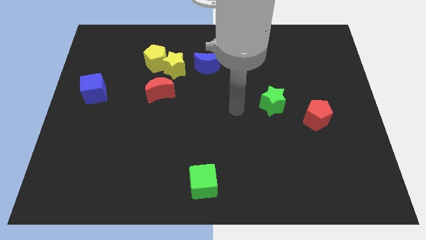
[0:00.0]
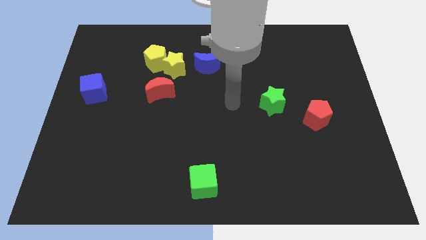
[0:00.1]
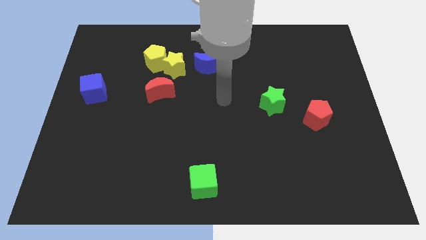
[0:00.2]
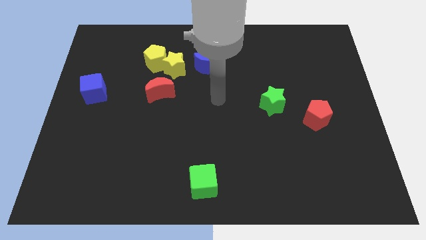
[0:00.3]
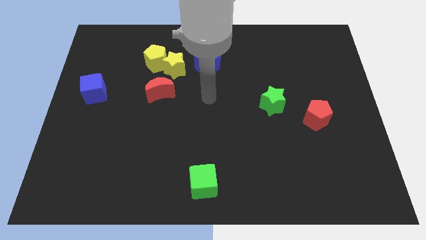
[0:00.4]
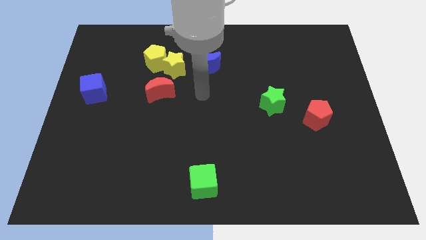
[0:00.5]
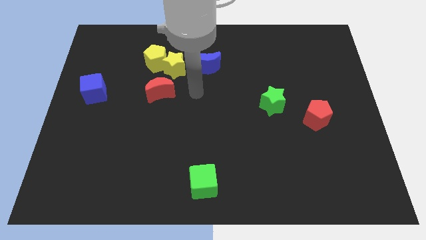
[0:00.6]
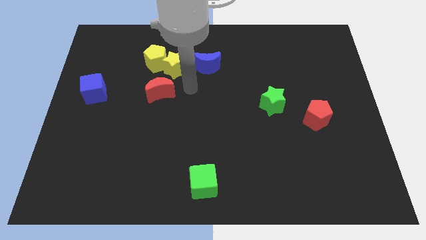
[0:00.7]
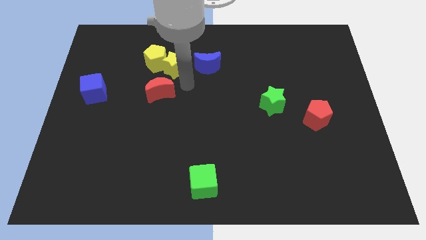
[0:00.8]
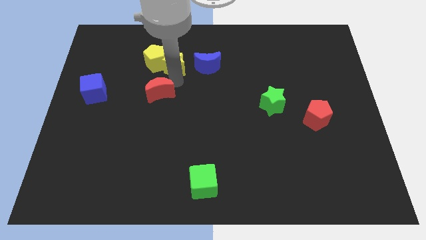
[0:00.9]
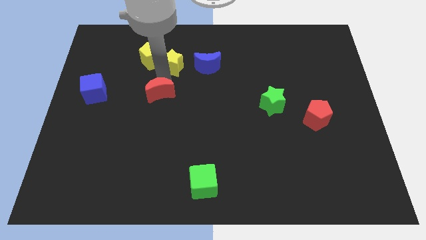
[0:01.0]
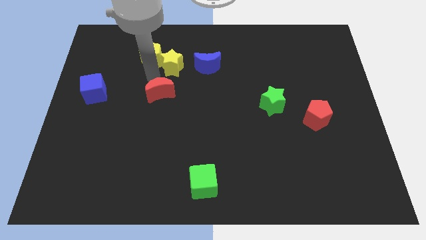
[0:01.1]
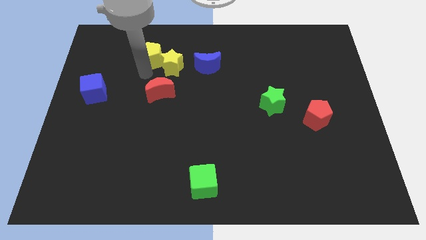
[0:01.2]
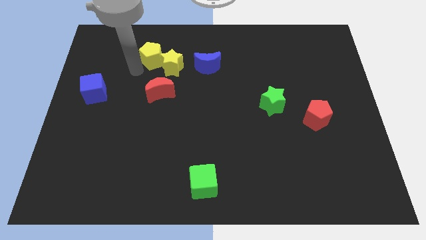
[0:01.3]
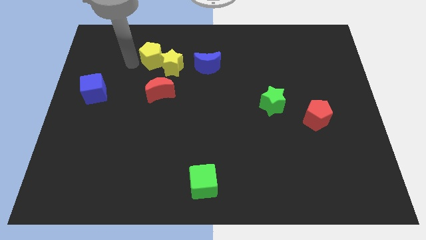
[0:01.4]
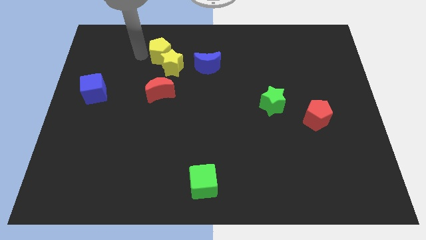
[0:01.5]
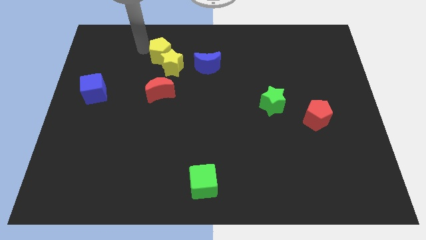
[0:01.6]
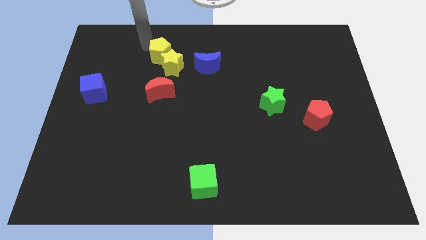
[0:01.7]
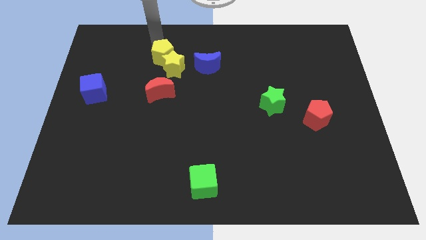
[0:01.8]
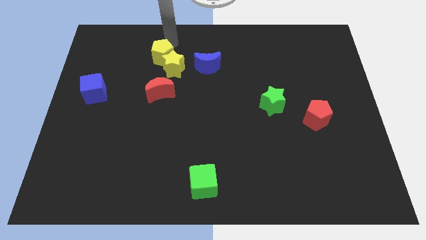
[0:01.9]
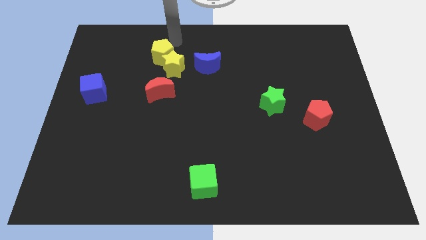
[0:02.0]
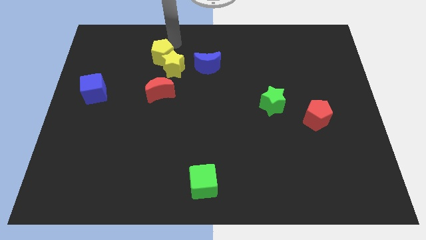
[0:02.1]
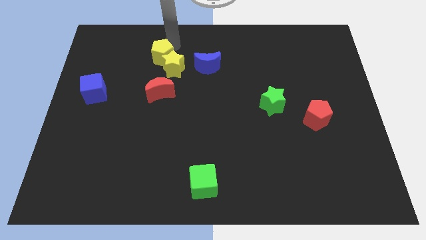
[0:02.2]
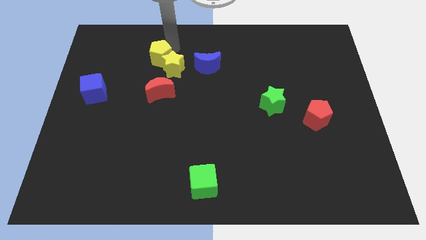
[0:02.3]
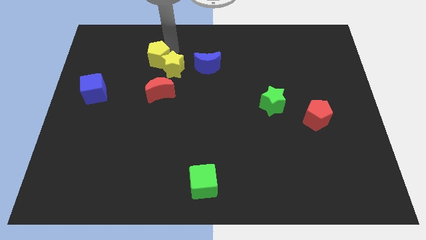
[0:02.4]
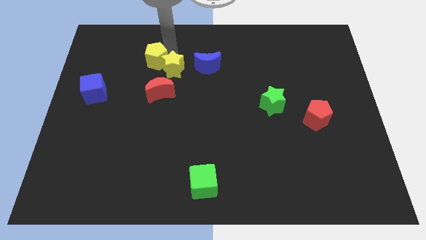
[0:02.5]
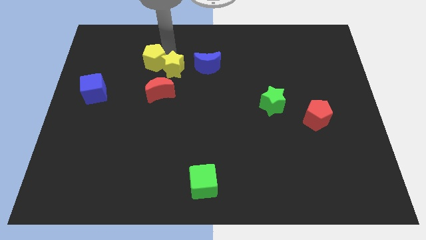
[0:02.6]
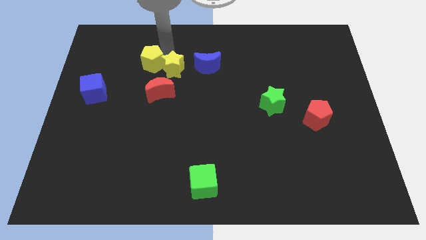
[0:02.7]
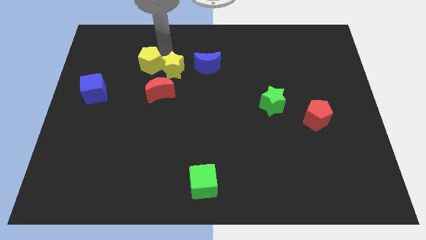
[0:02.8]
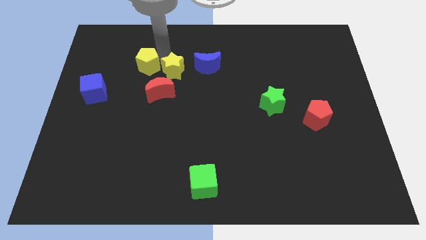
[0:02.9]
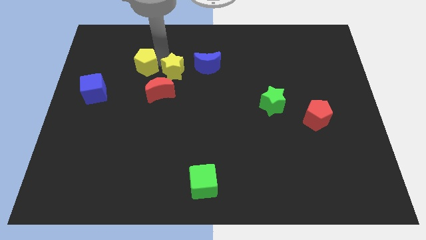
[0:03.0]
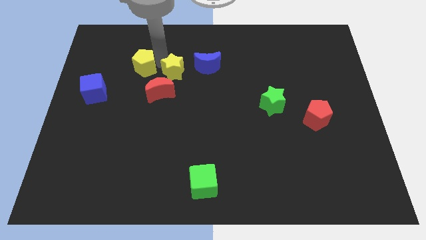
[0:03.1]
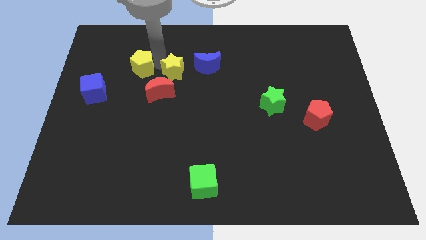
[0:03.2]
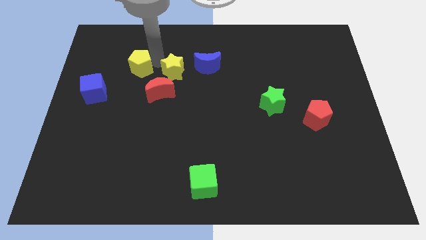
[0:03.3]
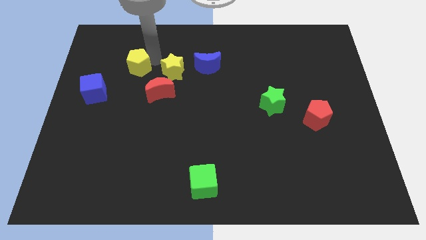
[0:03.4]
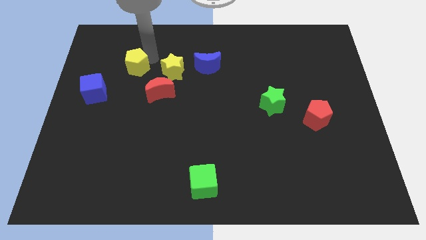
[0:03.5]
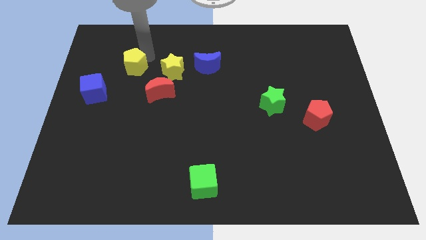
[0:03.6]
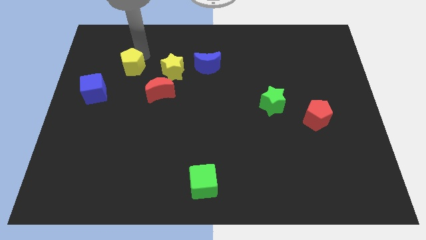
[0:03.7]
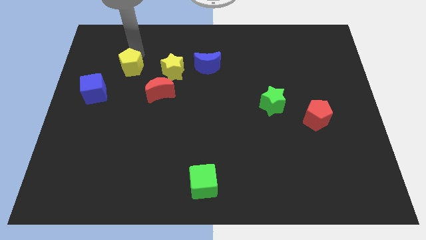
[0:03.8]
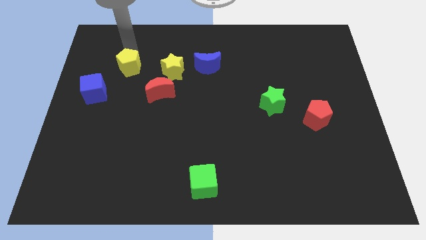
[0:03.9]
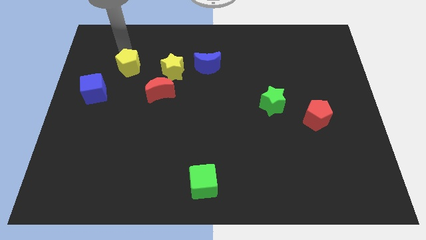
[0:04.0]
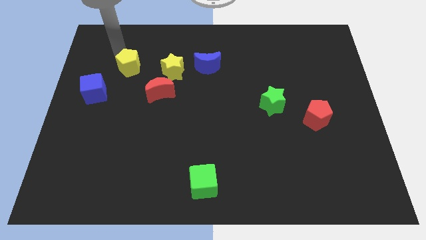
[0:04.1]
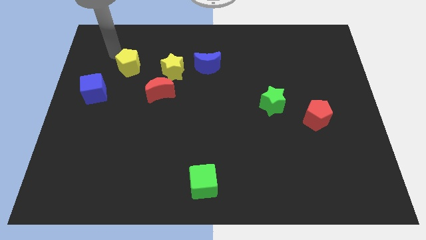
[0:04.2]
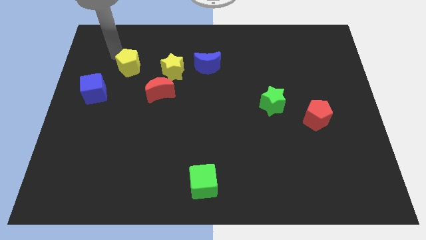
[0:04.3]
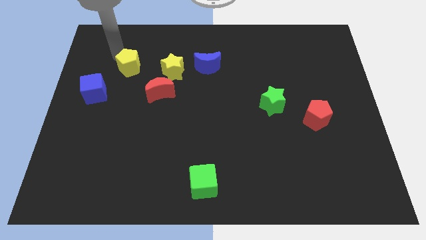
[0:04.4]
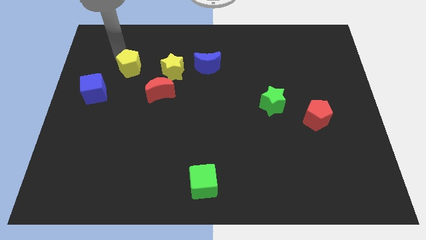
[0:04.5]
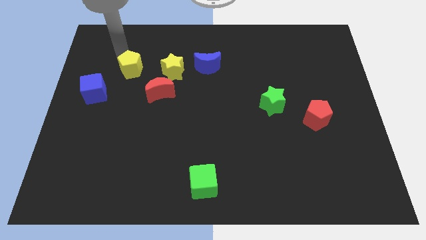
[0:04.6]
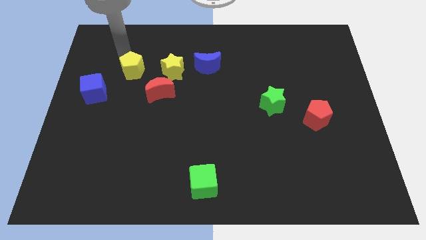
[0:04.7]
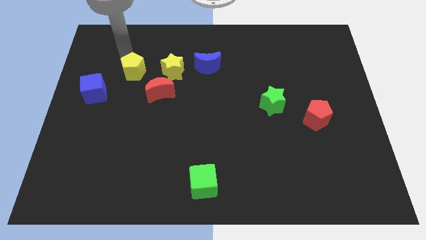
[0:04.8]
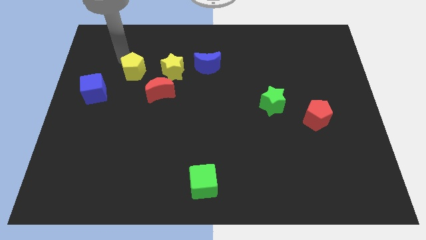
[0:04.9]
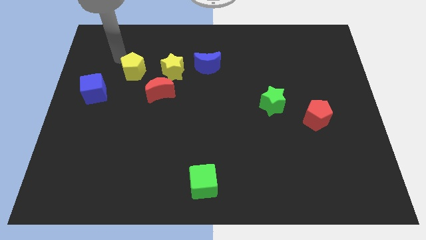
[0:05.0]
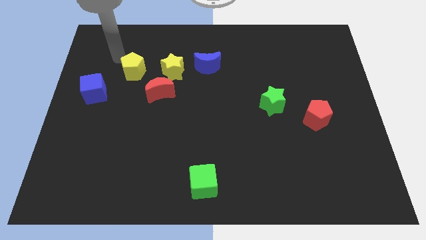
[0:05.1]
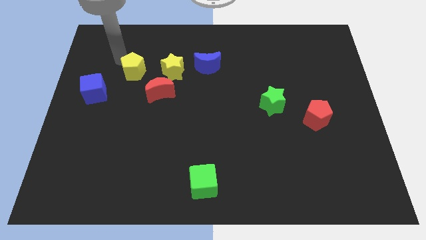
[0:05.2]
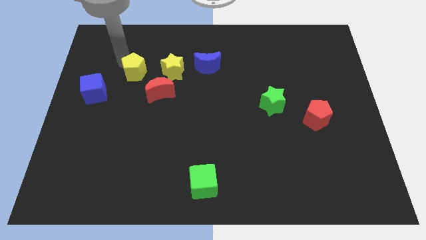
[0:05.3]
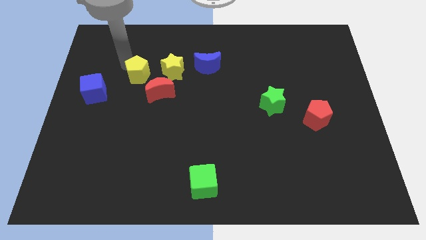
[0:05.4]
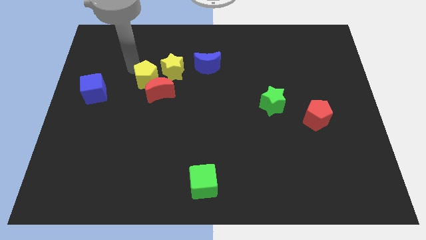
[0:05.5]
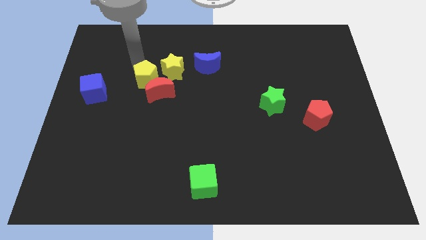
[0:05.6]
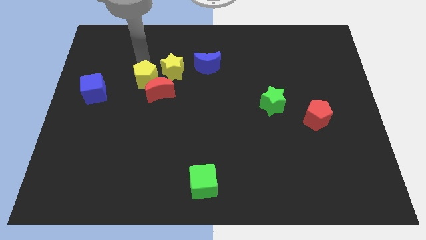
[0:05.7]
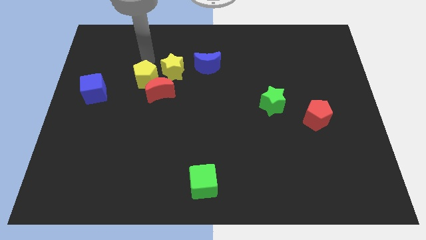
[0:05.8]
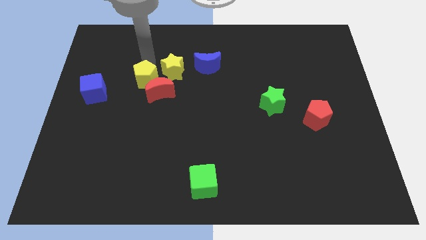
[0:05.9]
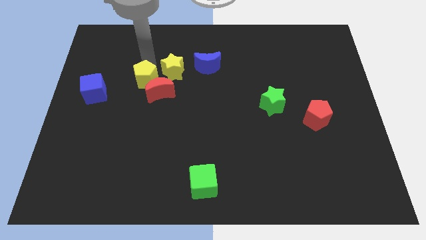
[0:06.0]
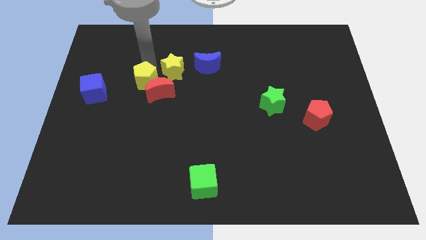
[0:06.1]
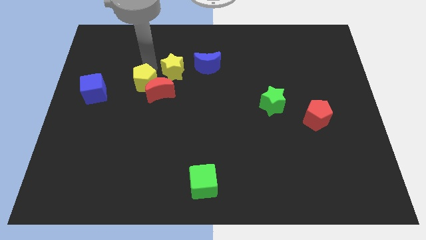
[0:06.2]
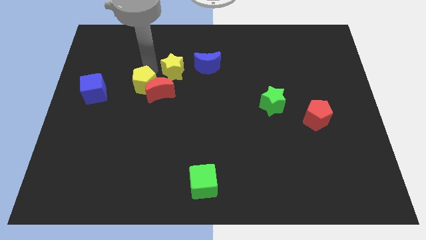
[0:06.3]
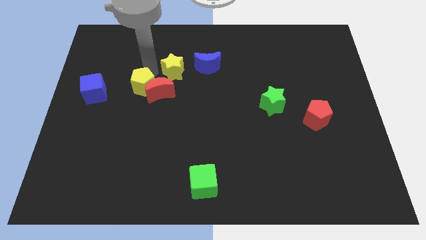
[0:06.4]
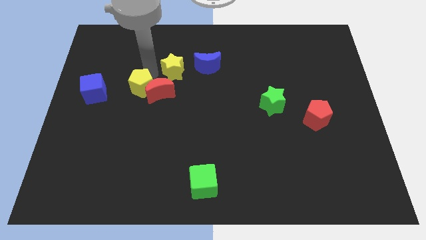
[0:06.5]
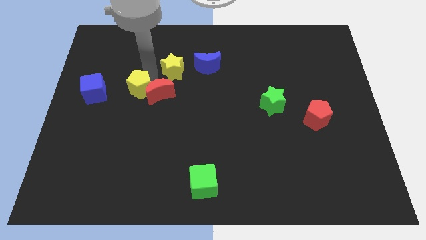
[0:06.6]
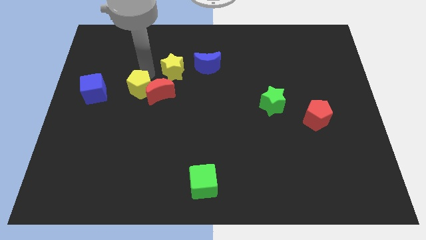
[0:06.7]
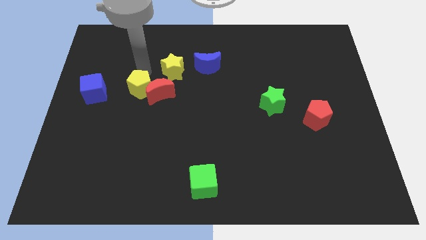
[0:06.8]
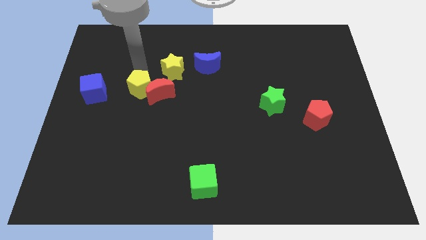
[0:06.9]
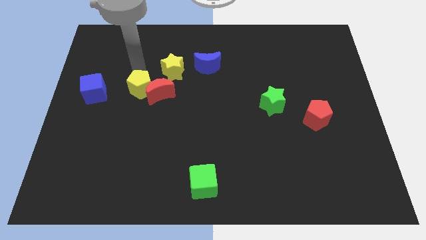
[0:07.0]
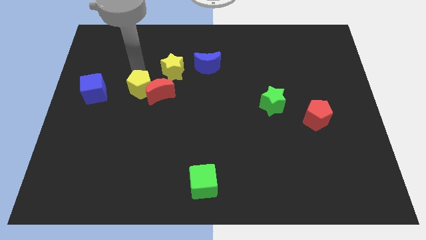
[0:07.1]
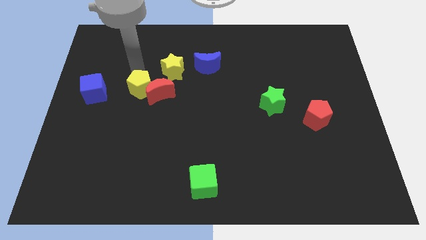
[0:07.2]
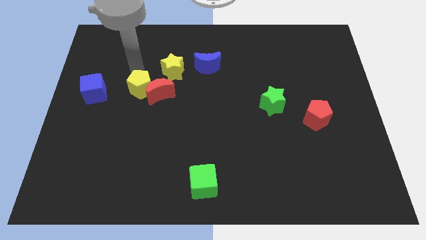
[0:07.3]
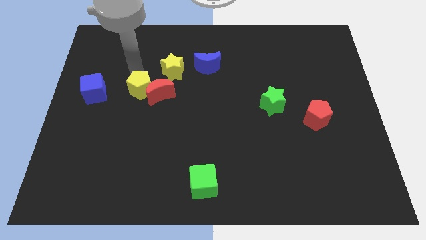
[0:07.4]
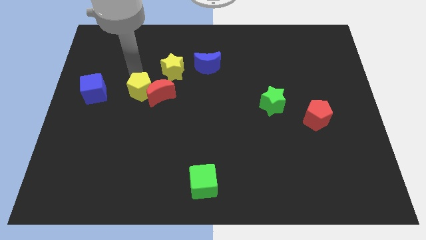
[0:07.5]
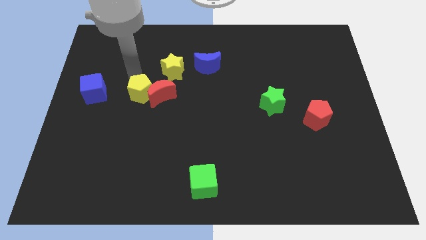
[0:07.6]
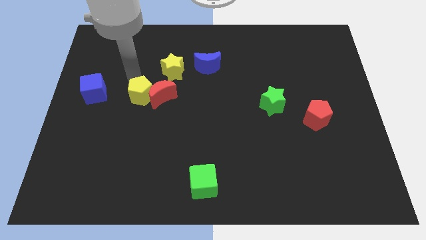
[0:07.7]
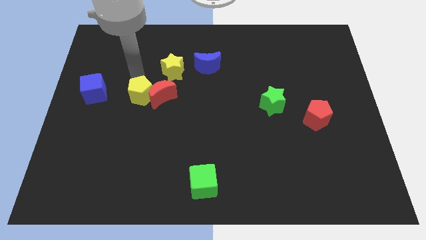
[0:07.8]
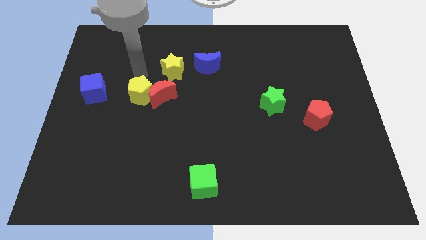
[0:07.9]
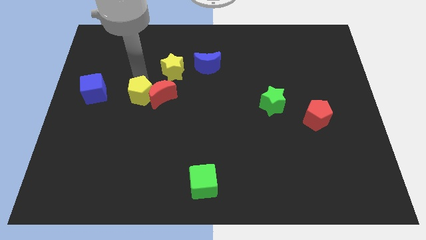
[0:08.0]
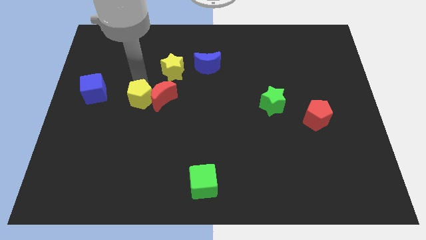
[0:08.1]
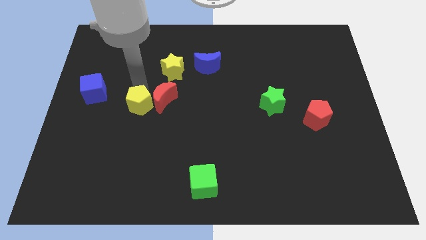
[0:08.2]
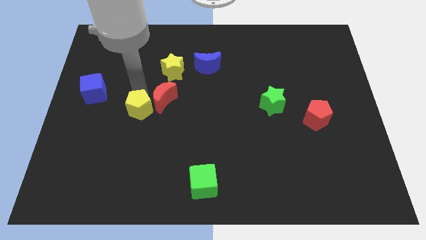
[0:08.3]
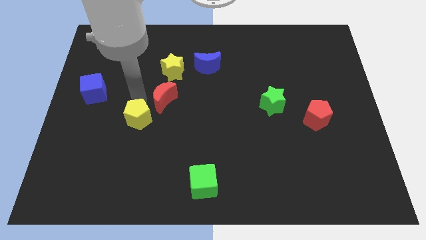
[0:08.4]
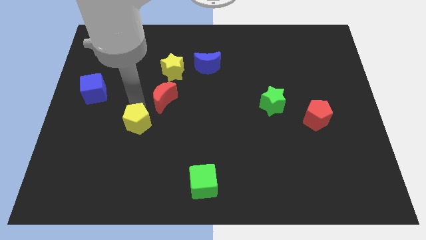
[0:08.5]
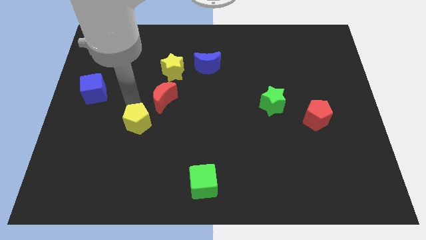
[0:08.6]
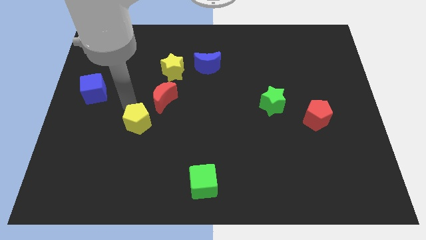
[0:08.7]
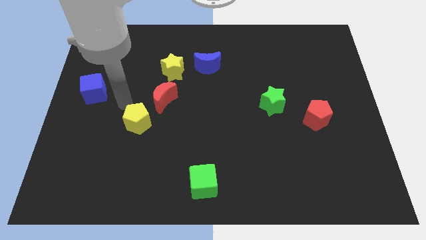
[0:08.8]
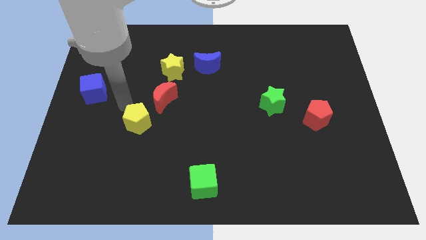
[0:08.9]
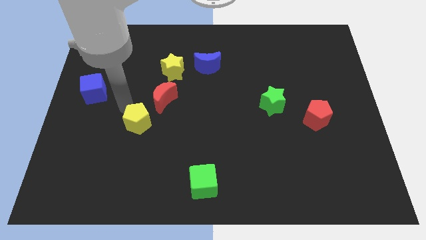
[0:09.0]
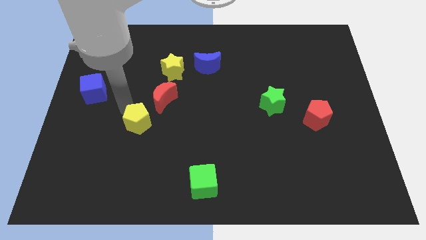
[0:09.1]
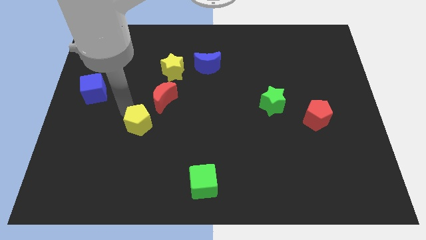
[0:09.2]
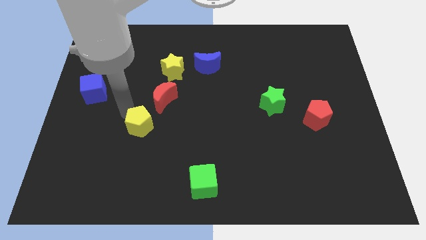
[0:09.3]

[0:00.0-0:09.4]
push the yellow pentagon downwards
